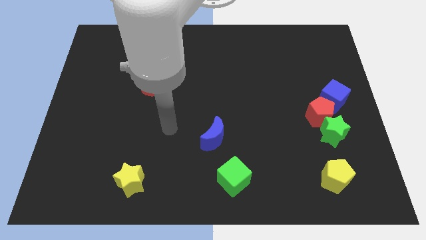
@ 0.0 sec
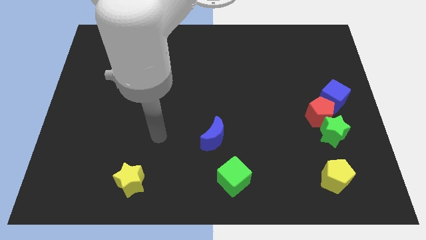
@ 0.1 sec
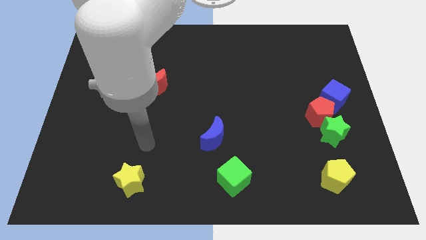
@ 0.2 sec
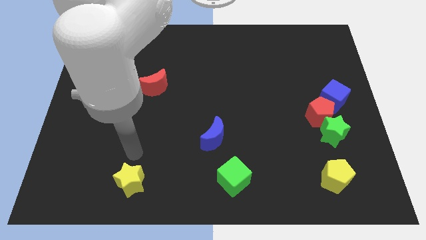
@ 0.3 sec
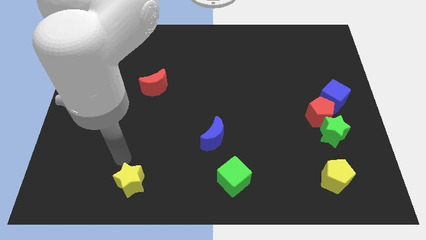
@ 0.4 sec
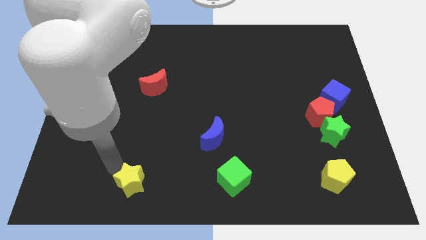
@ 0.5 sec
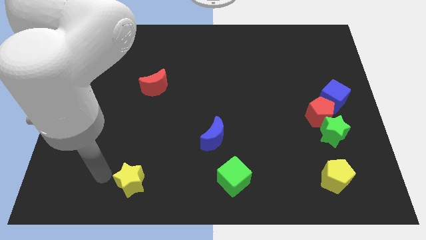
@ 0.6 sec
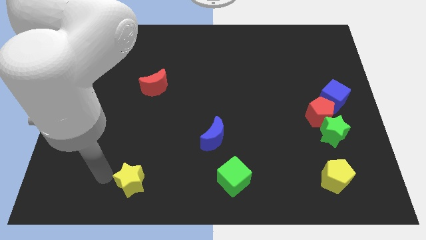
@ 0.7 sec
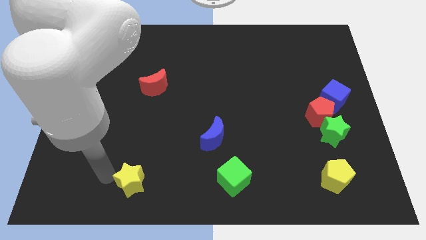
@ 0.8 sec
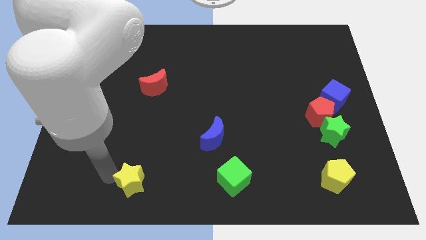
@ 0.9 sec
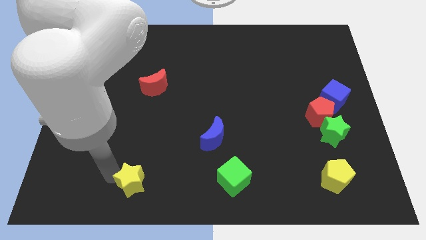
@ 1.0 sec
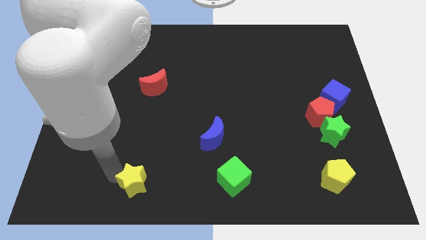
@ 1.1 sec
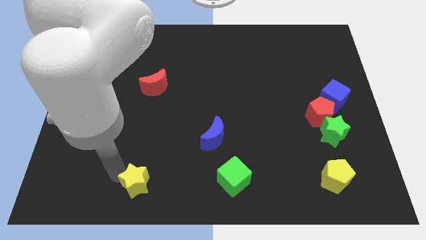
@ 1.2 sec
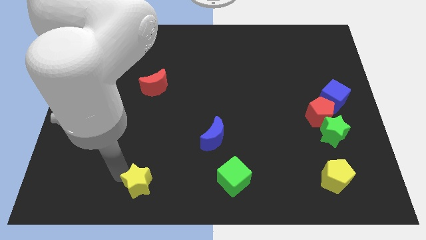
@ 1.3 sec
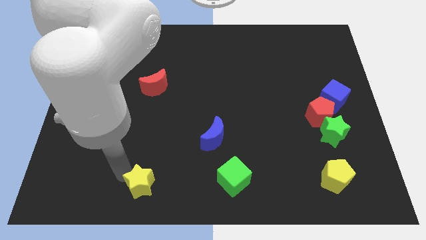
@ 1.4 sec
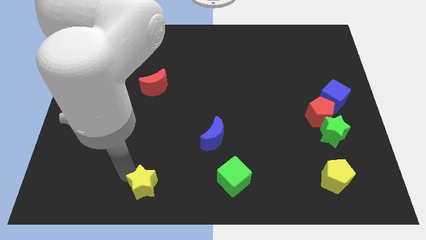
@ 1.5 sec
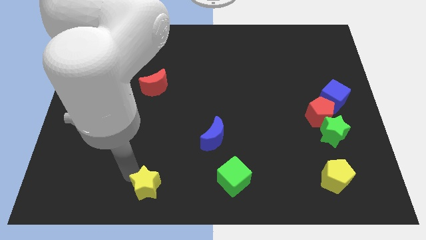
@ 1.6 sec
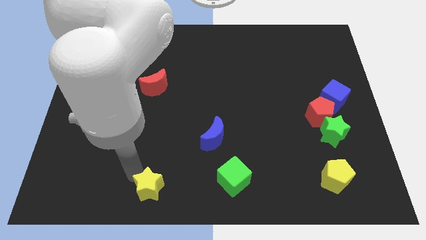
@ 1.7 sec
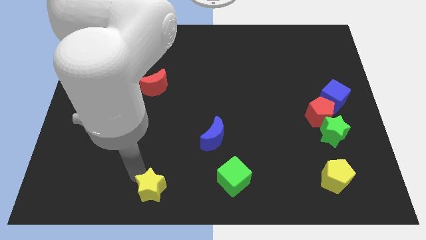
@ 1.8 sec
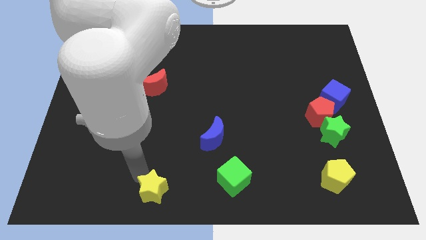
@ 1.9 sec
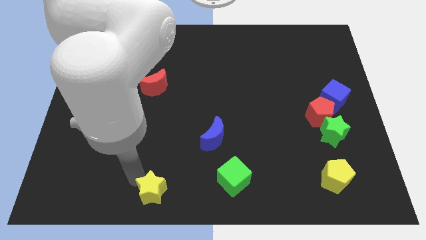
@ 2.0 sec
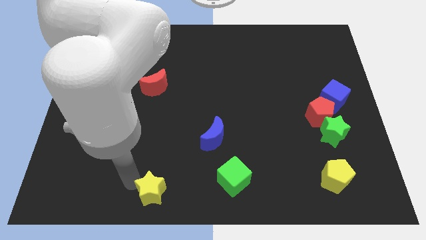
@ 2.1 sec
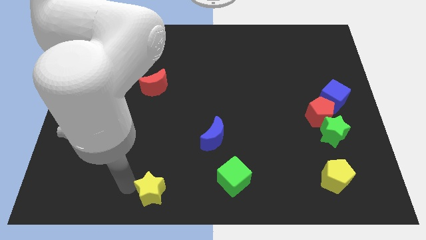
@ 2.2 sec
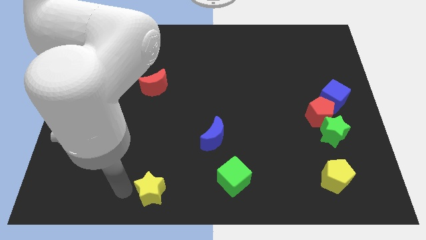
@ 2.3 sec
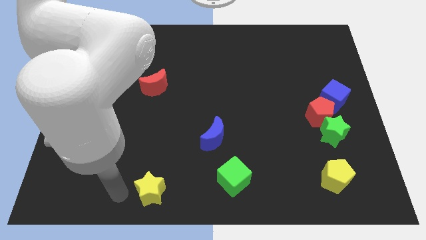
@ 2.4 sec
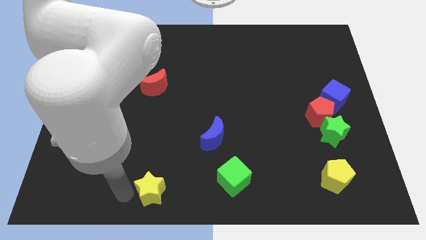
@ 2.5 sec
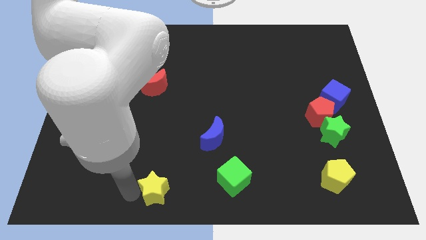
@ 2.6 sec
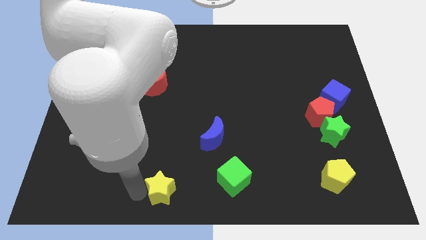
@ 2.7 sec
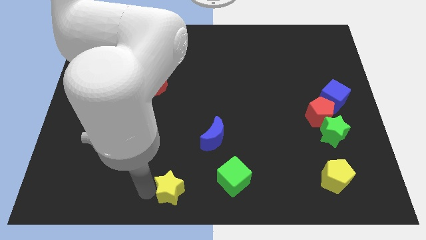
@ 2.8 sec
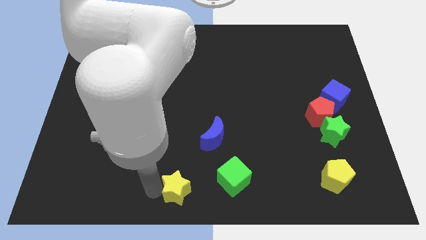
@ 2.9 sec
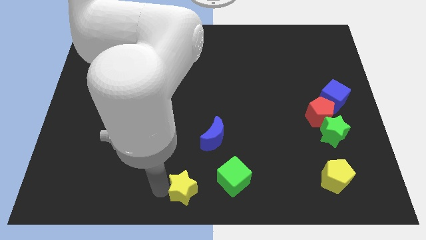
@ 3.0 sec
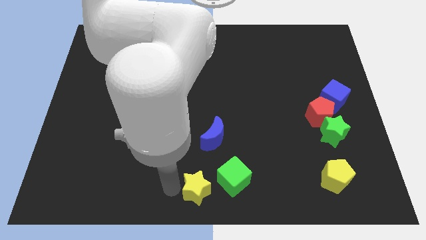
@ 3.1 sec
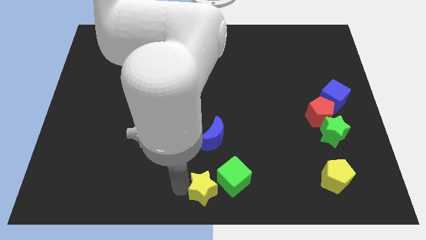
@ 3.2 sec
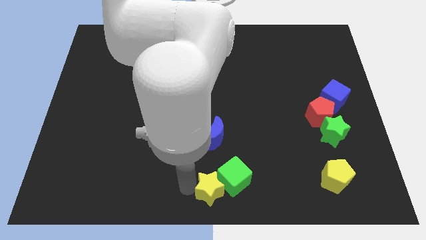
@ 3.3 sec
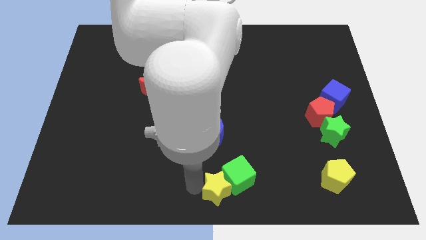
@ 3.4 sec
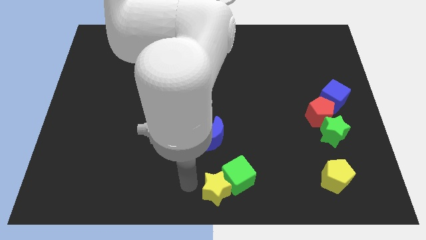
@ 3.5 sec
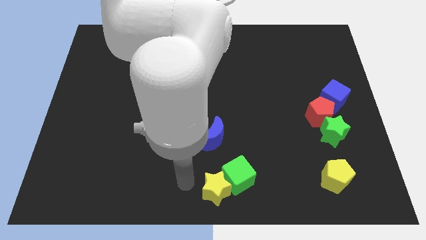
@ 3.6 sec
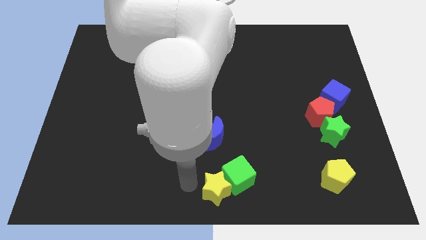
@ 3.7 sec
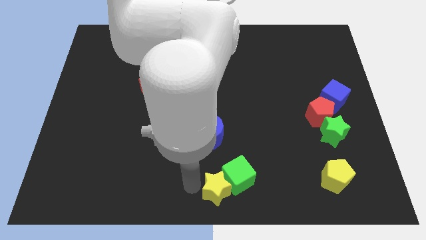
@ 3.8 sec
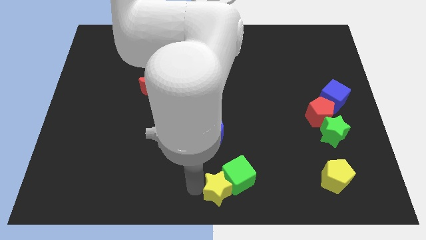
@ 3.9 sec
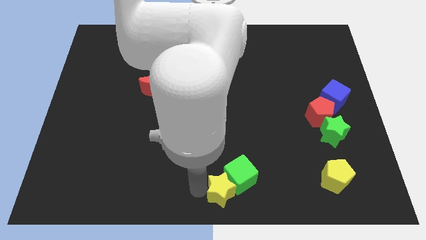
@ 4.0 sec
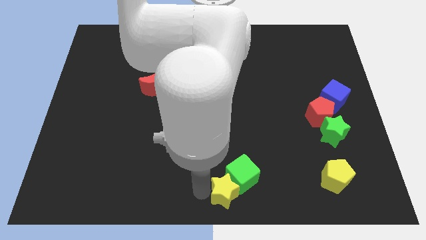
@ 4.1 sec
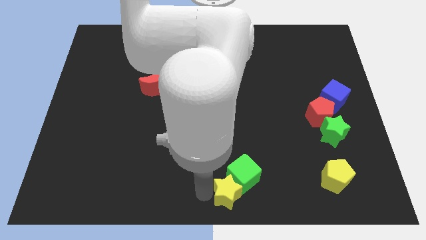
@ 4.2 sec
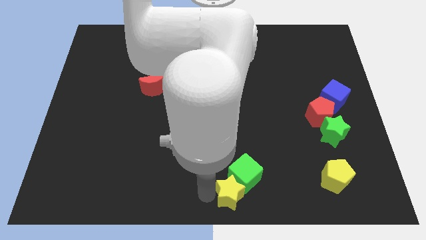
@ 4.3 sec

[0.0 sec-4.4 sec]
move the yellow star right

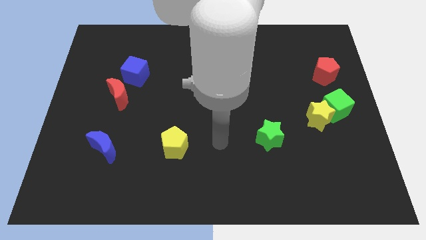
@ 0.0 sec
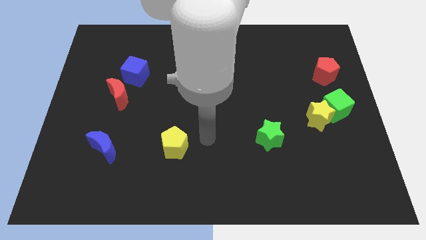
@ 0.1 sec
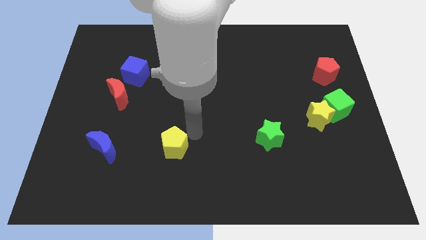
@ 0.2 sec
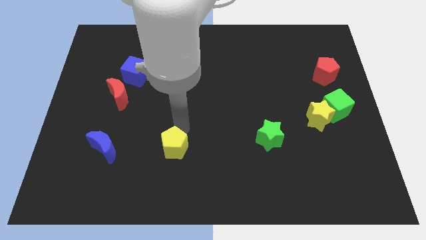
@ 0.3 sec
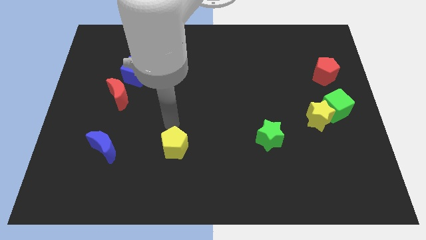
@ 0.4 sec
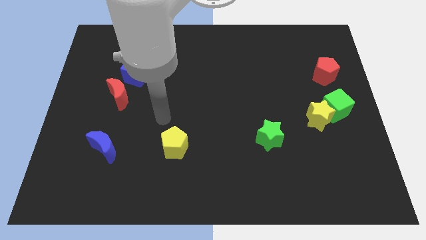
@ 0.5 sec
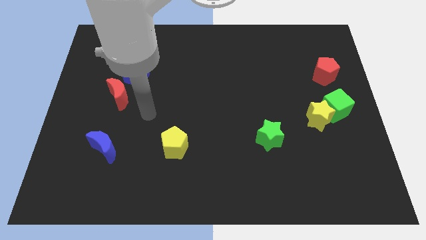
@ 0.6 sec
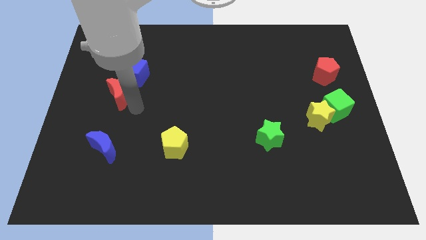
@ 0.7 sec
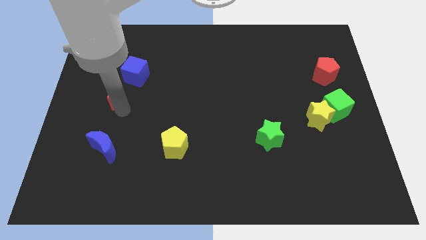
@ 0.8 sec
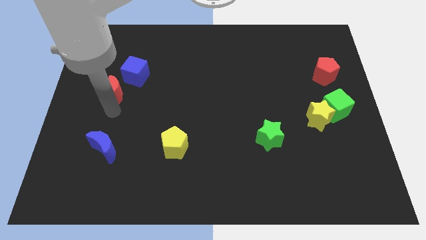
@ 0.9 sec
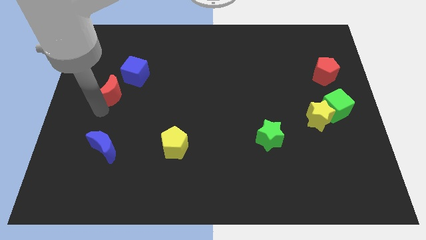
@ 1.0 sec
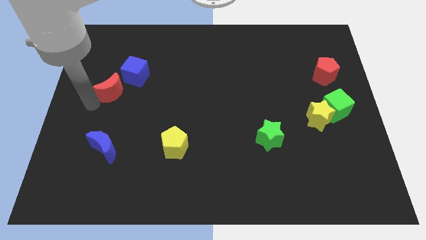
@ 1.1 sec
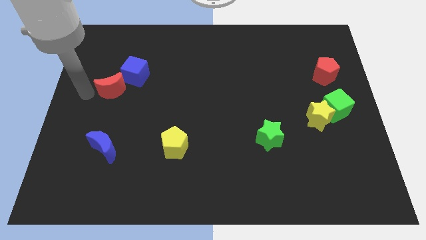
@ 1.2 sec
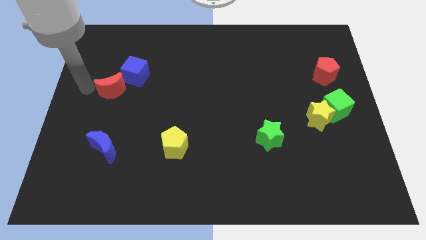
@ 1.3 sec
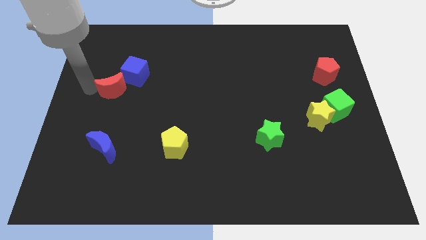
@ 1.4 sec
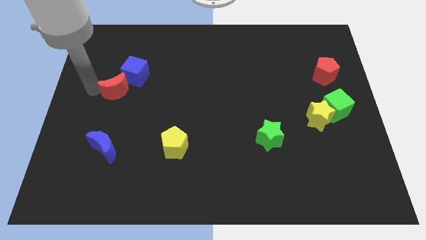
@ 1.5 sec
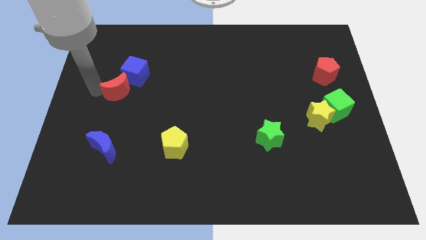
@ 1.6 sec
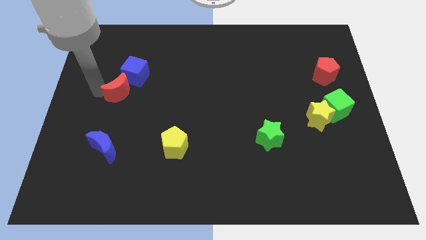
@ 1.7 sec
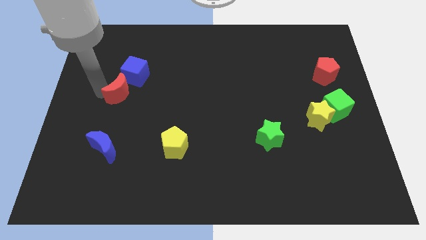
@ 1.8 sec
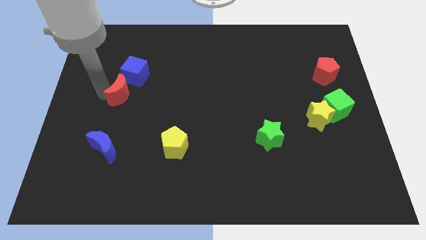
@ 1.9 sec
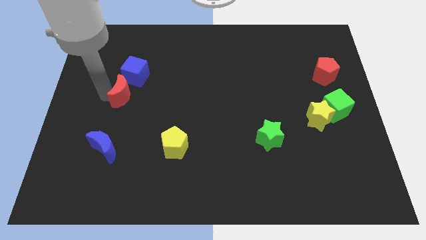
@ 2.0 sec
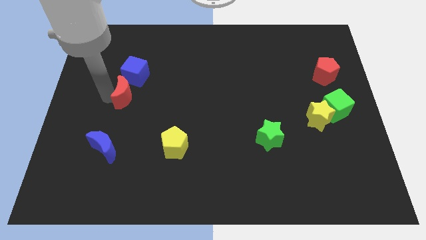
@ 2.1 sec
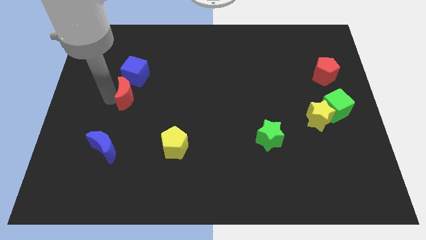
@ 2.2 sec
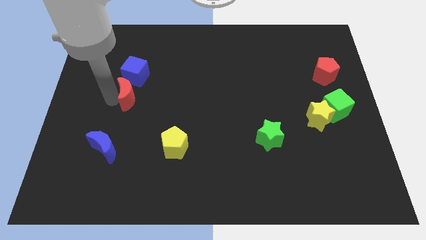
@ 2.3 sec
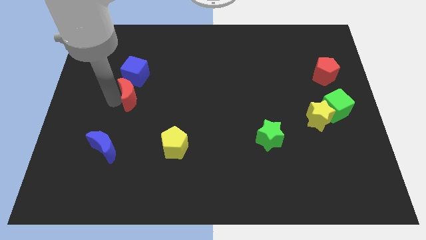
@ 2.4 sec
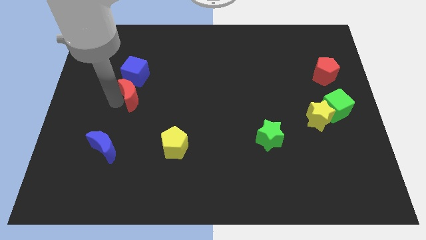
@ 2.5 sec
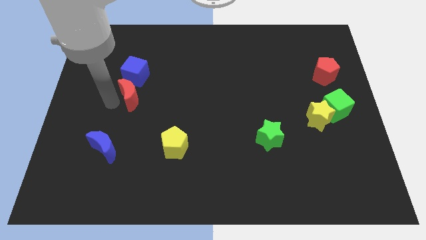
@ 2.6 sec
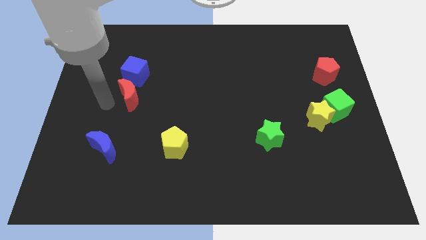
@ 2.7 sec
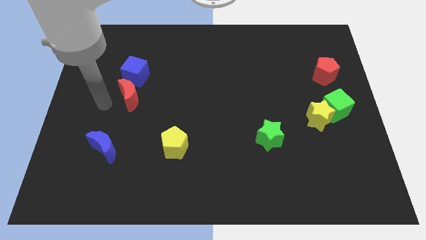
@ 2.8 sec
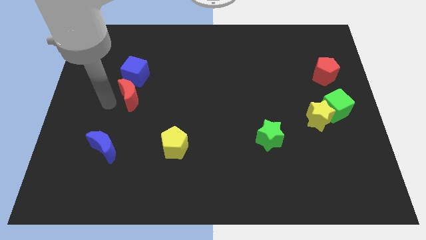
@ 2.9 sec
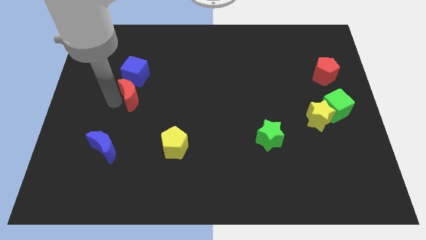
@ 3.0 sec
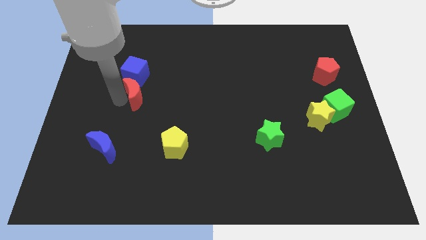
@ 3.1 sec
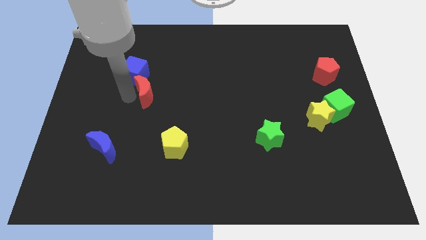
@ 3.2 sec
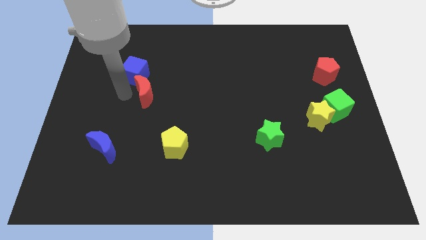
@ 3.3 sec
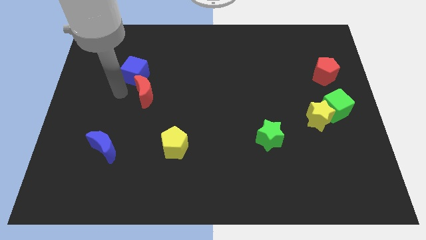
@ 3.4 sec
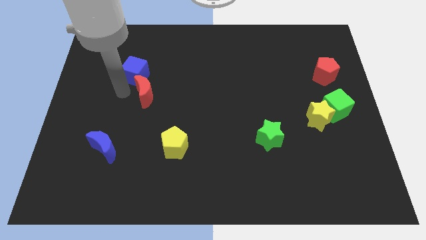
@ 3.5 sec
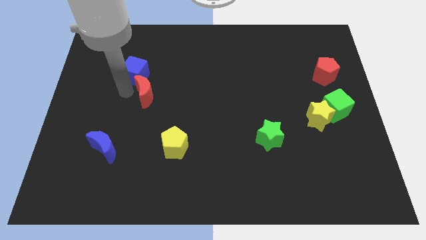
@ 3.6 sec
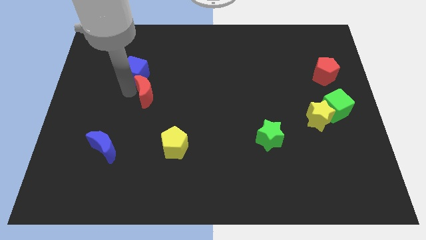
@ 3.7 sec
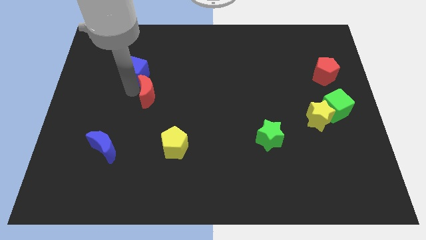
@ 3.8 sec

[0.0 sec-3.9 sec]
move the red moon slightly right
